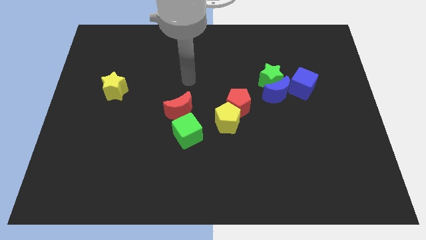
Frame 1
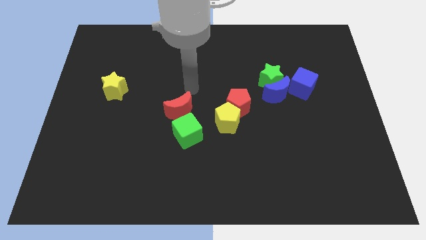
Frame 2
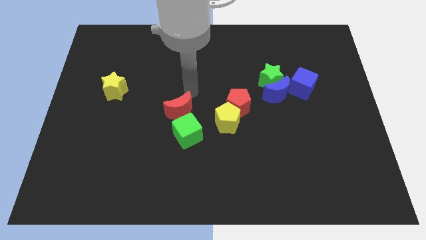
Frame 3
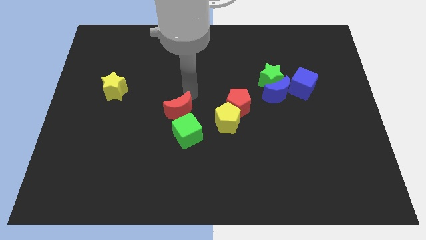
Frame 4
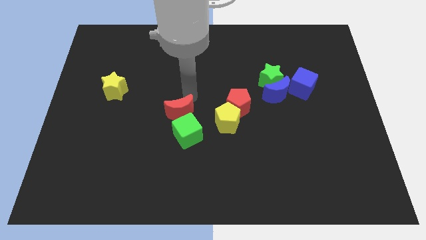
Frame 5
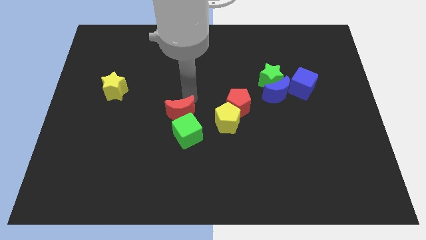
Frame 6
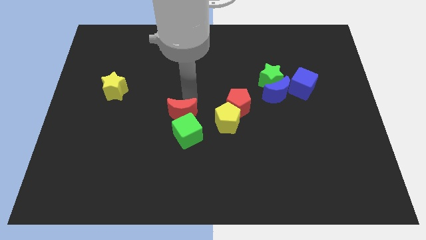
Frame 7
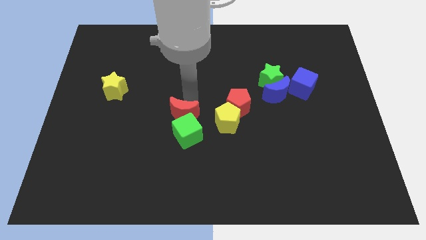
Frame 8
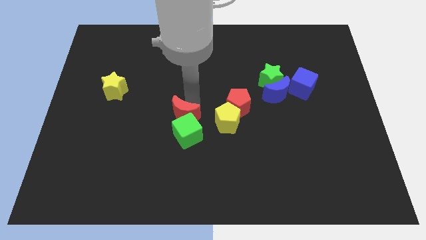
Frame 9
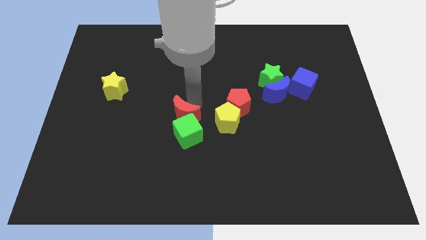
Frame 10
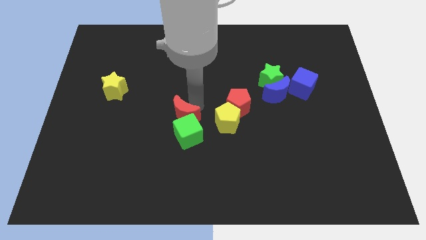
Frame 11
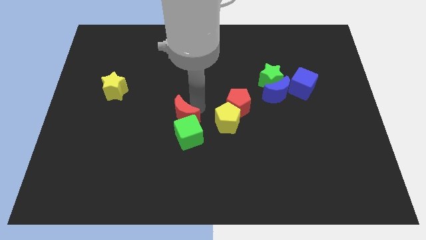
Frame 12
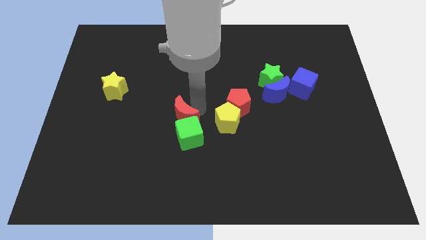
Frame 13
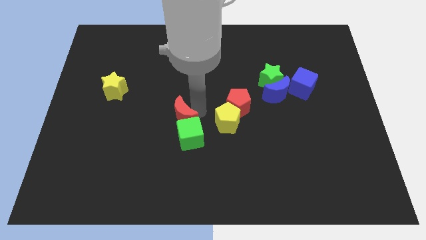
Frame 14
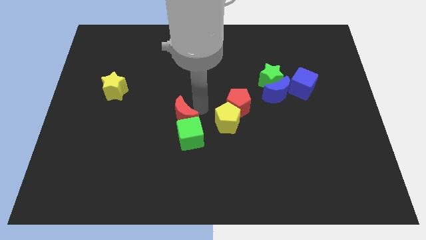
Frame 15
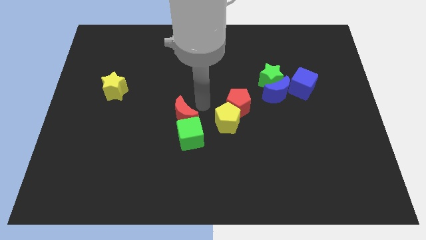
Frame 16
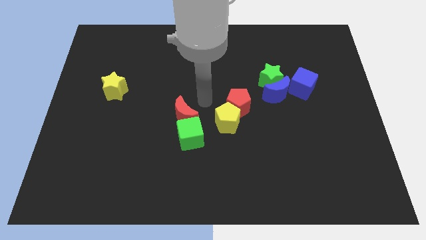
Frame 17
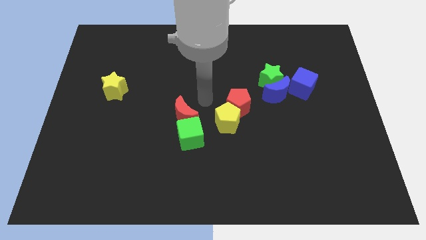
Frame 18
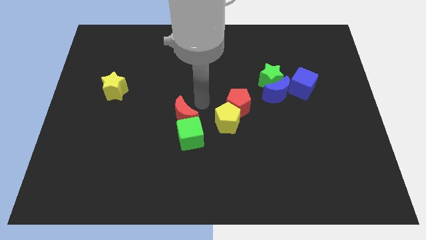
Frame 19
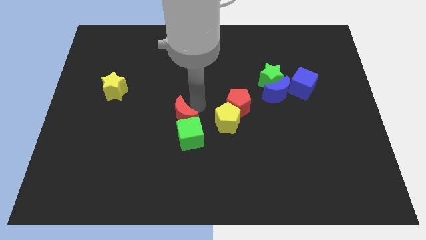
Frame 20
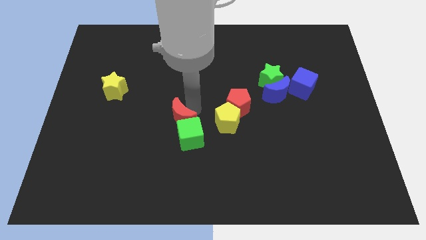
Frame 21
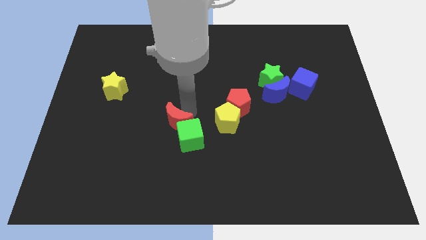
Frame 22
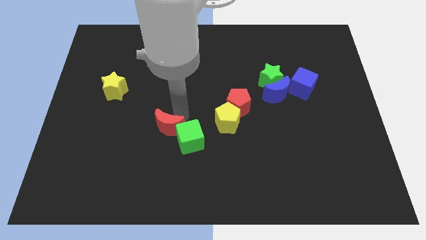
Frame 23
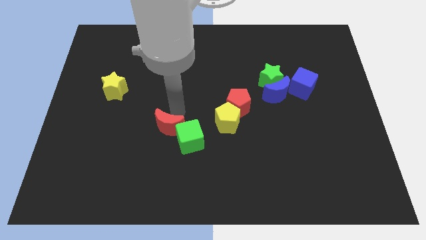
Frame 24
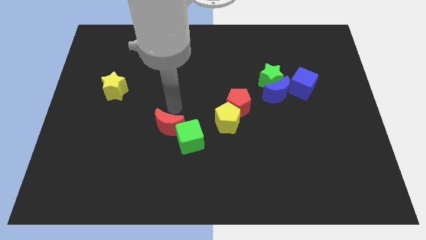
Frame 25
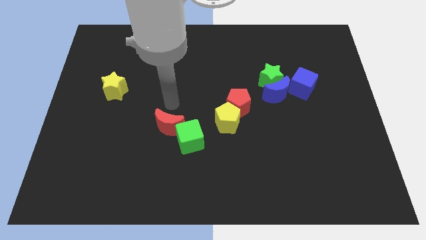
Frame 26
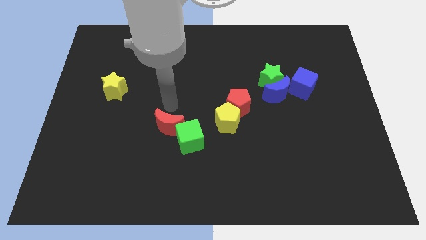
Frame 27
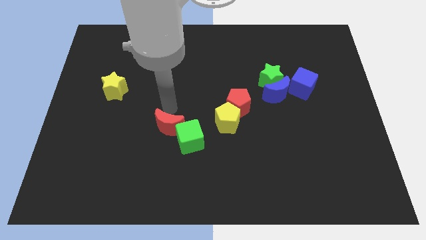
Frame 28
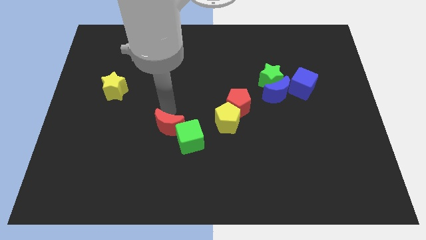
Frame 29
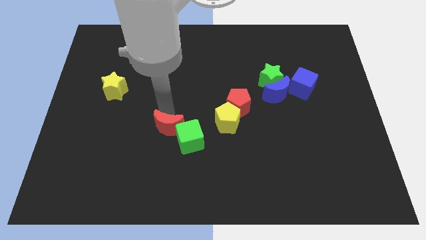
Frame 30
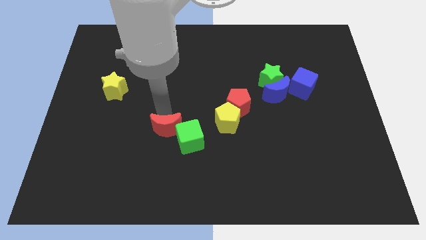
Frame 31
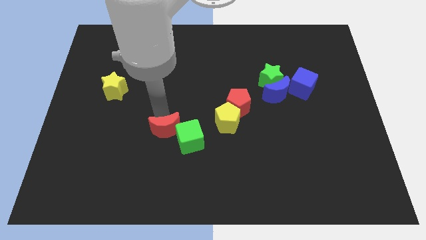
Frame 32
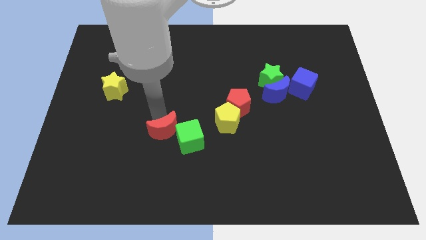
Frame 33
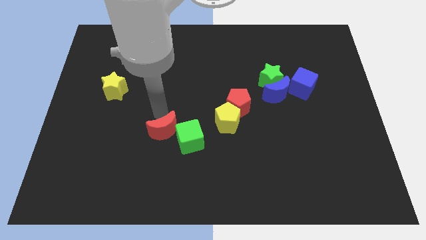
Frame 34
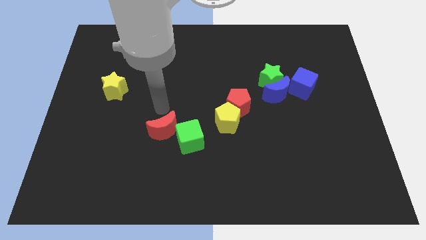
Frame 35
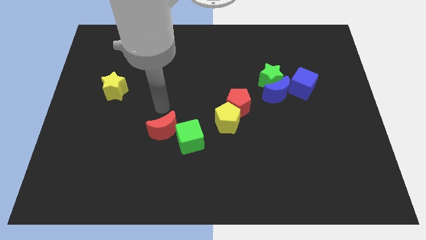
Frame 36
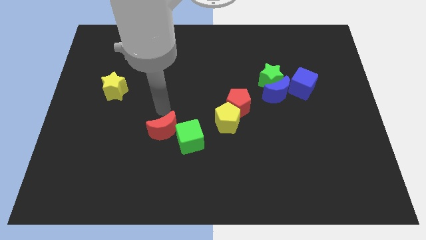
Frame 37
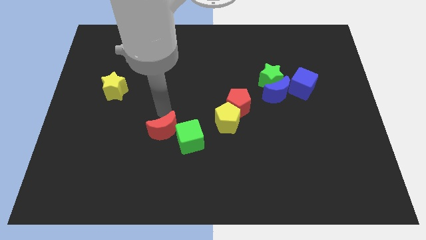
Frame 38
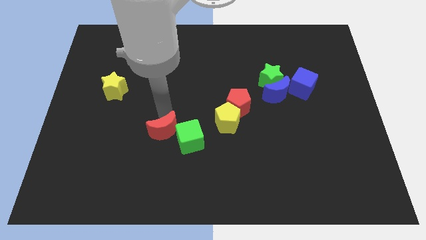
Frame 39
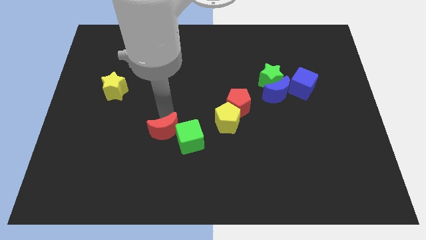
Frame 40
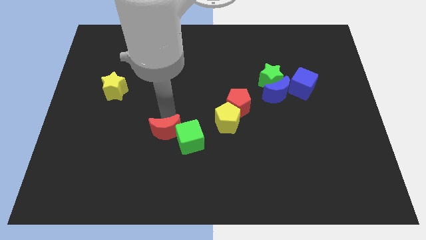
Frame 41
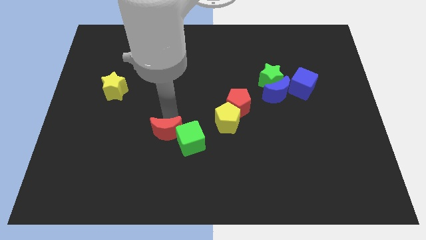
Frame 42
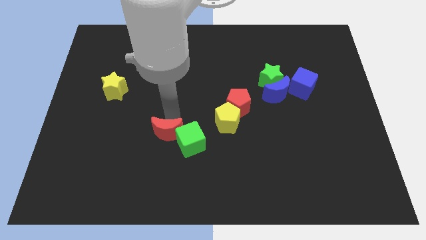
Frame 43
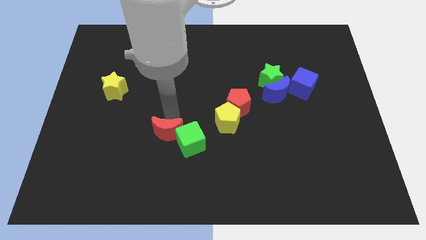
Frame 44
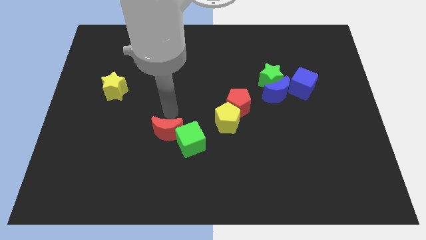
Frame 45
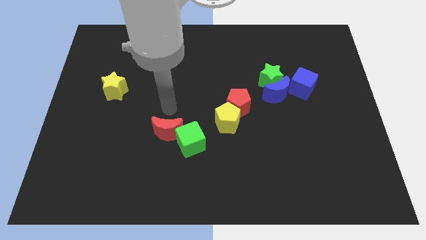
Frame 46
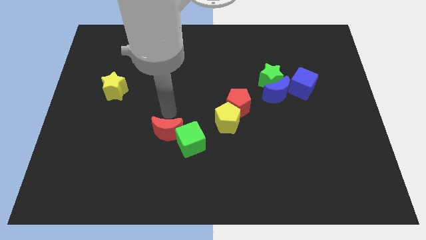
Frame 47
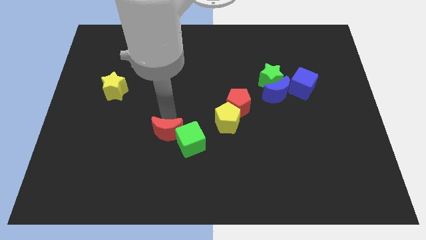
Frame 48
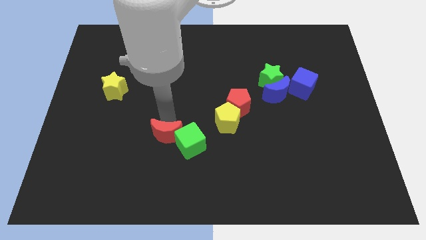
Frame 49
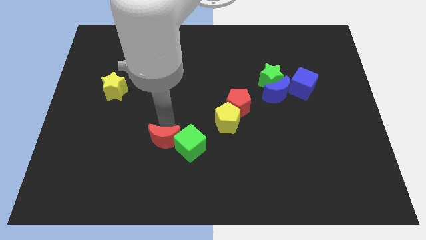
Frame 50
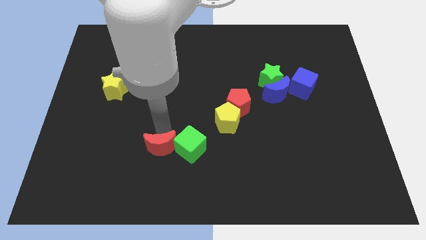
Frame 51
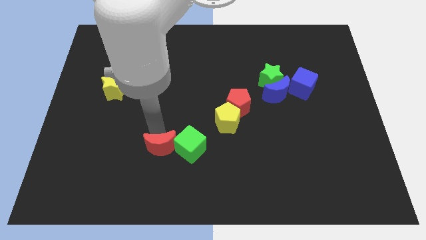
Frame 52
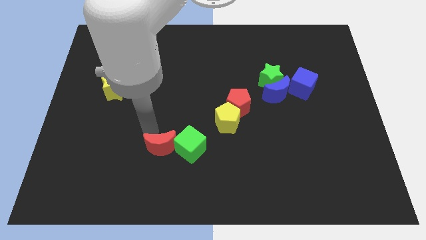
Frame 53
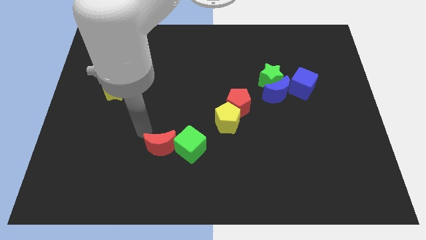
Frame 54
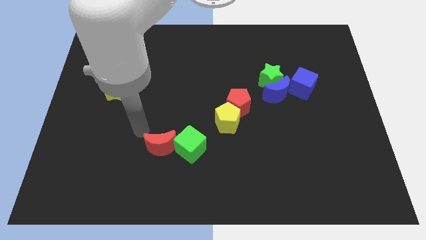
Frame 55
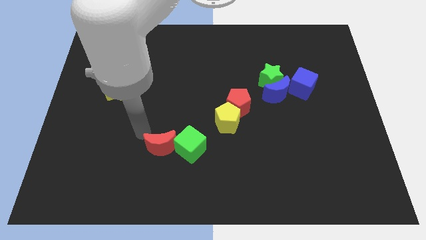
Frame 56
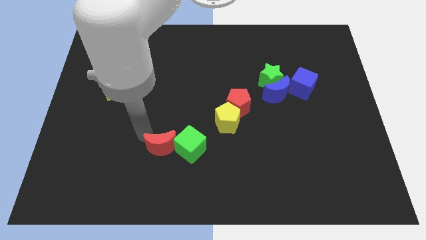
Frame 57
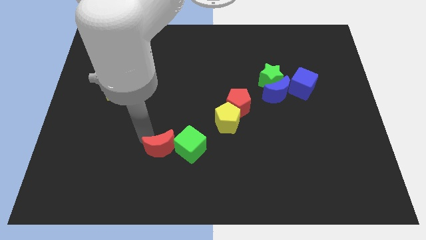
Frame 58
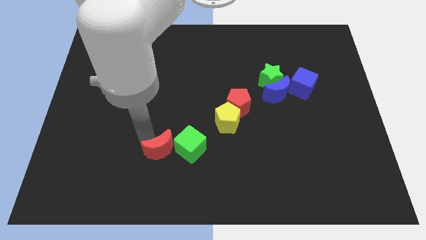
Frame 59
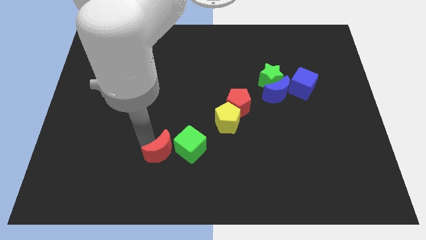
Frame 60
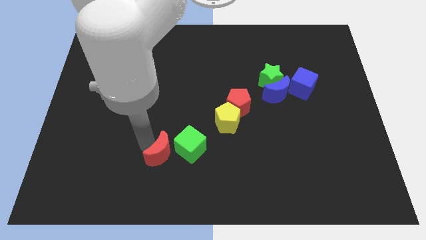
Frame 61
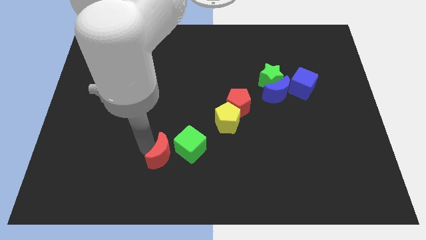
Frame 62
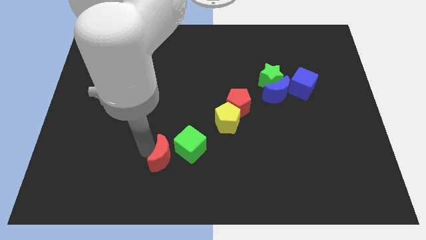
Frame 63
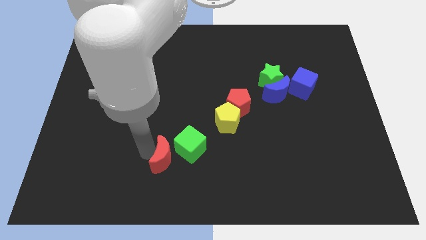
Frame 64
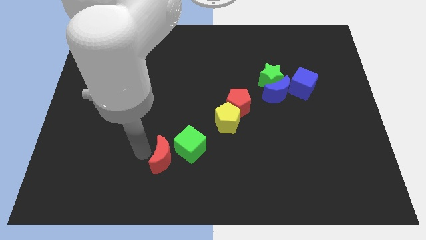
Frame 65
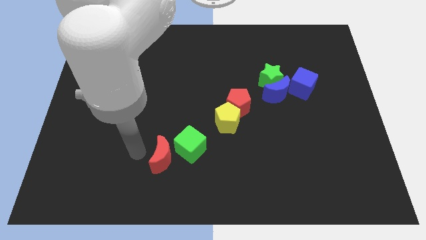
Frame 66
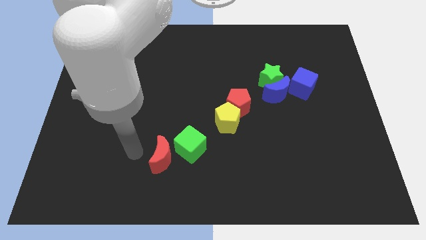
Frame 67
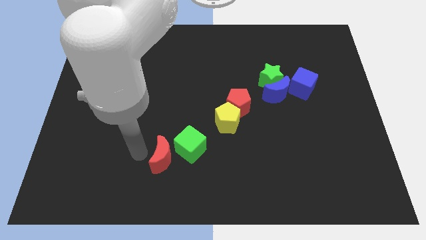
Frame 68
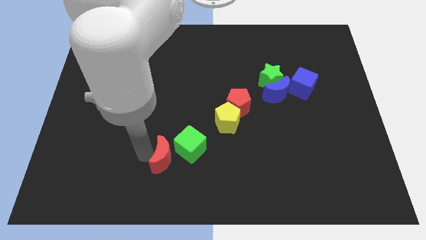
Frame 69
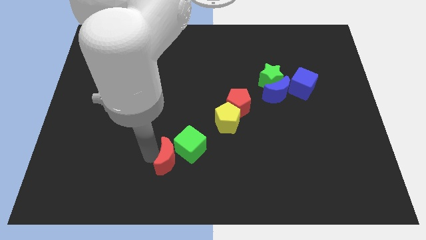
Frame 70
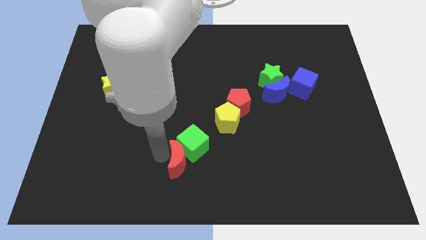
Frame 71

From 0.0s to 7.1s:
put the red moon to the bottom
